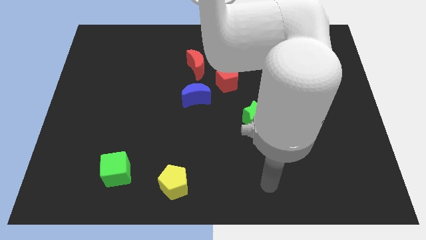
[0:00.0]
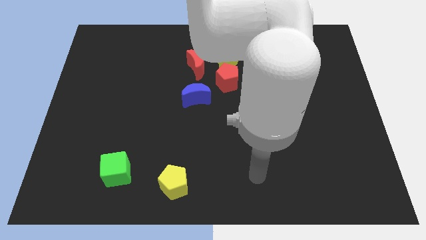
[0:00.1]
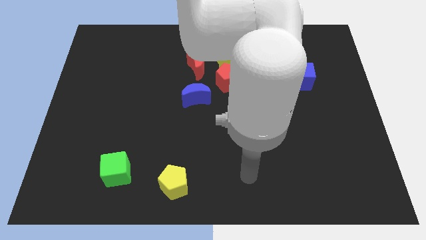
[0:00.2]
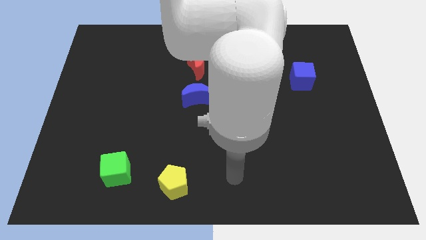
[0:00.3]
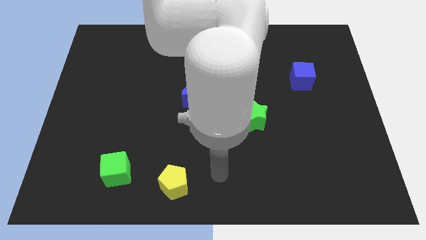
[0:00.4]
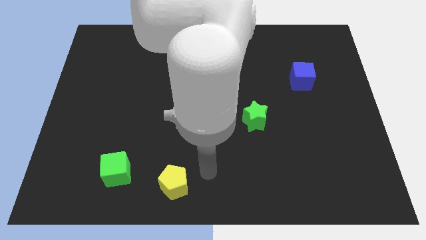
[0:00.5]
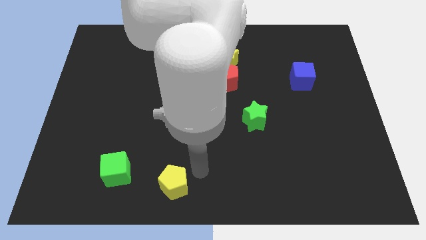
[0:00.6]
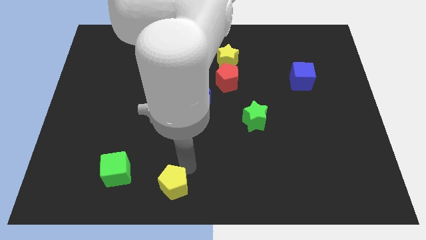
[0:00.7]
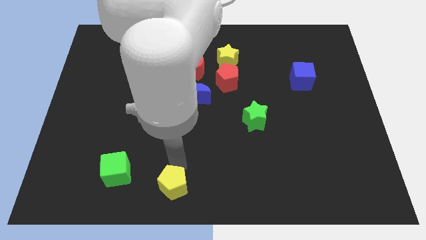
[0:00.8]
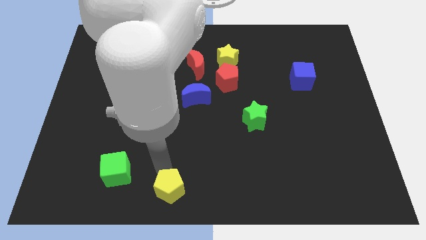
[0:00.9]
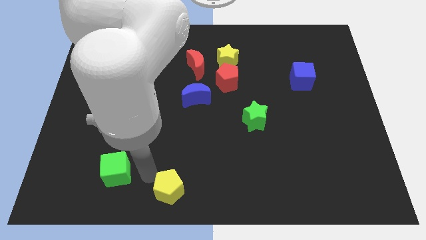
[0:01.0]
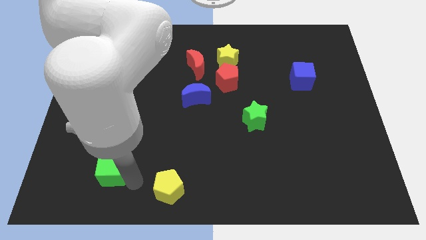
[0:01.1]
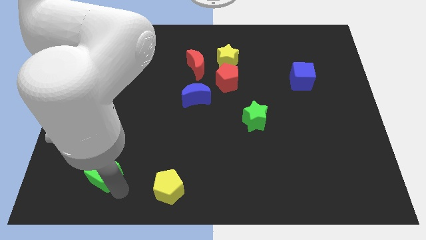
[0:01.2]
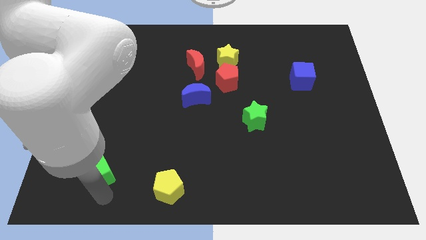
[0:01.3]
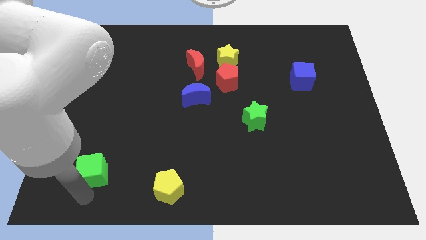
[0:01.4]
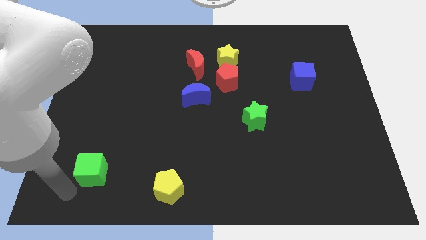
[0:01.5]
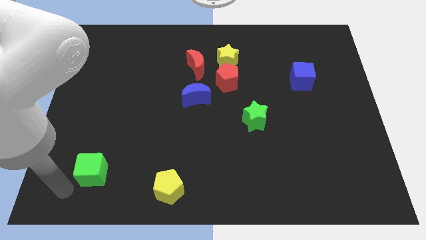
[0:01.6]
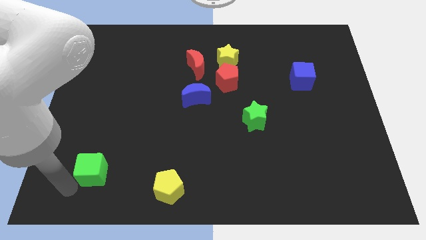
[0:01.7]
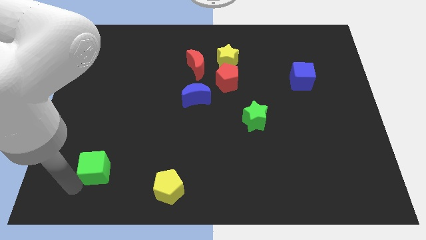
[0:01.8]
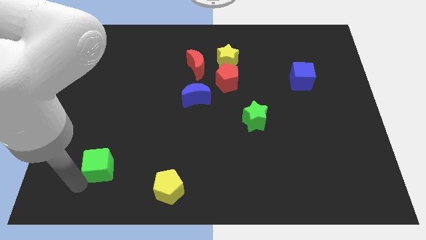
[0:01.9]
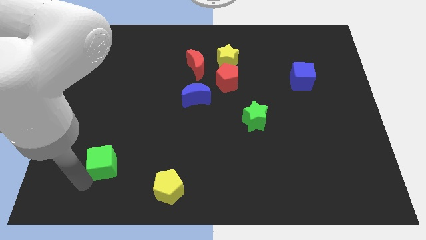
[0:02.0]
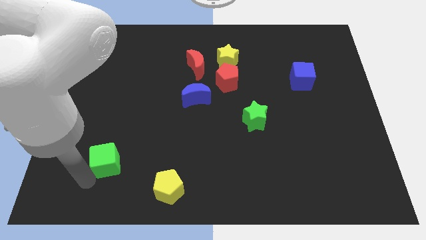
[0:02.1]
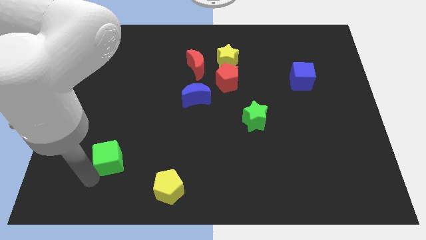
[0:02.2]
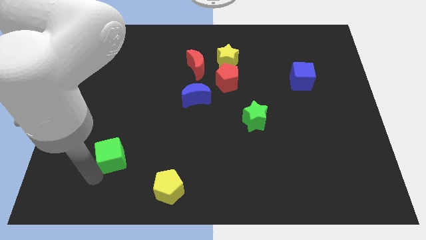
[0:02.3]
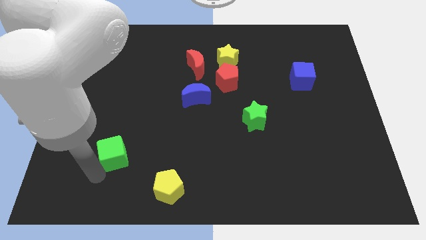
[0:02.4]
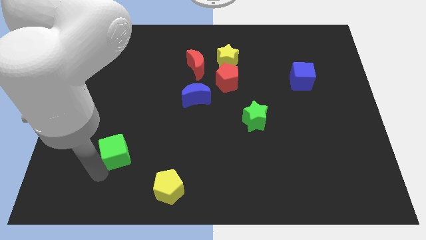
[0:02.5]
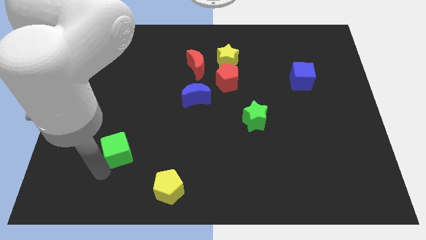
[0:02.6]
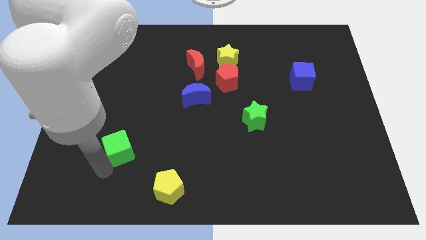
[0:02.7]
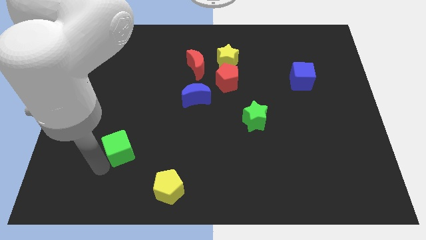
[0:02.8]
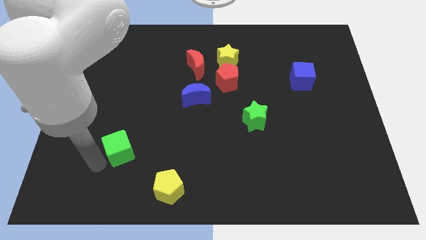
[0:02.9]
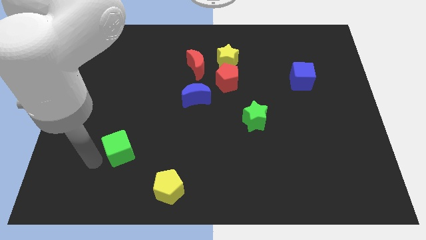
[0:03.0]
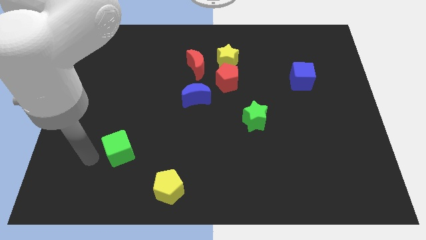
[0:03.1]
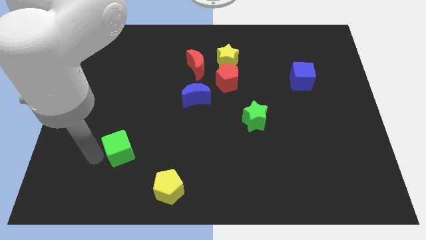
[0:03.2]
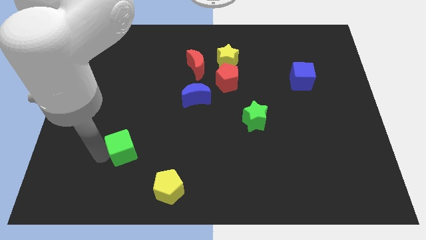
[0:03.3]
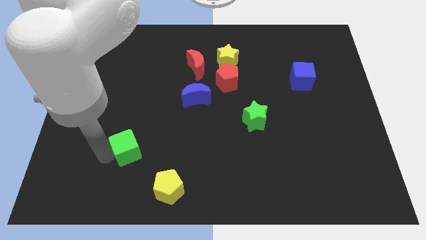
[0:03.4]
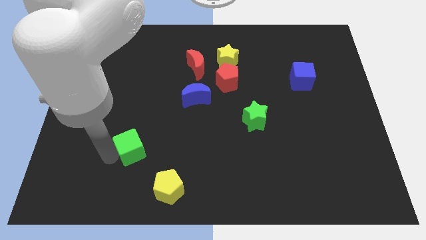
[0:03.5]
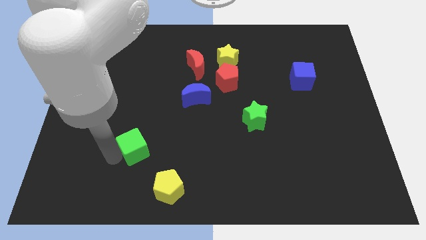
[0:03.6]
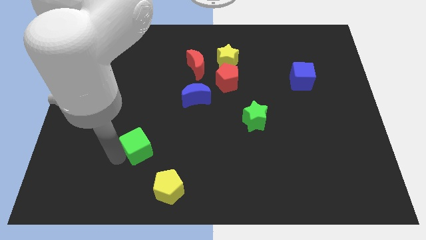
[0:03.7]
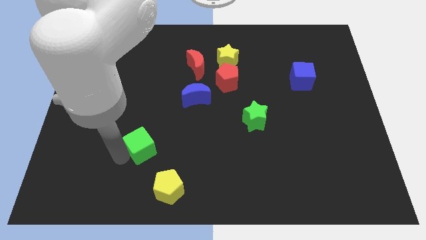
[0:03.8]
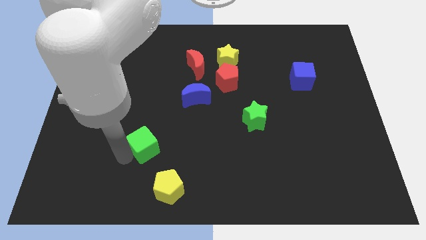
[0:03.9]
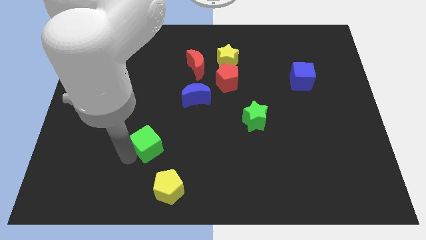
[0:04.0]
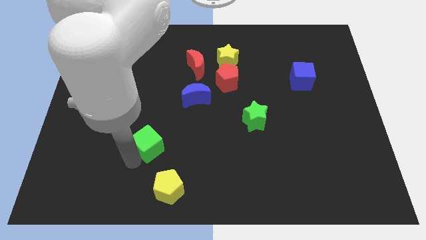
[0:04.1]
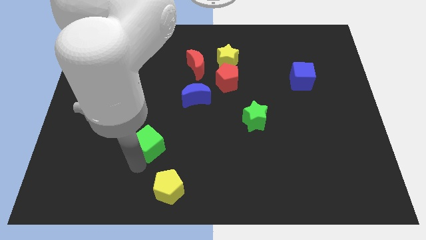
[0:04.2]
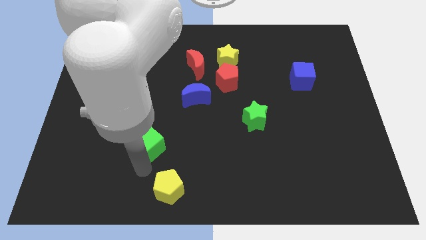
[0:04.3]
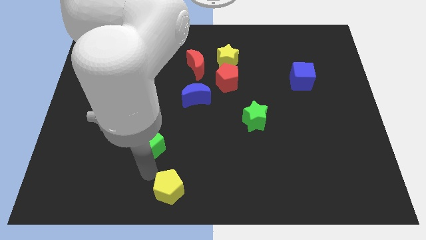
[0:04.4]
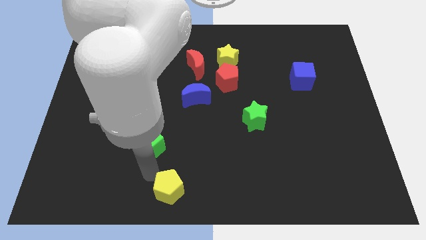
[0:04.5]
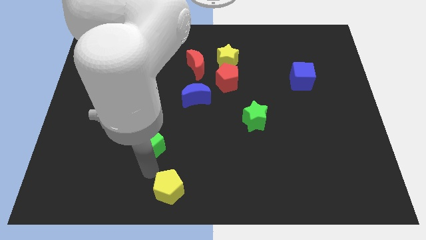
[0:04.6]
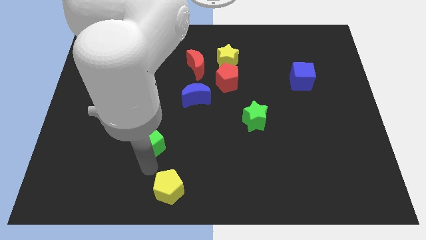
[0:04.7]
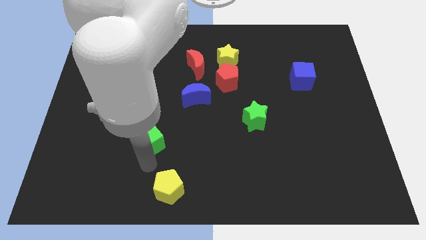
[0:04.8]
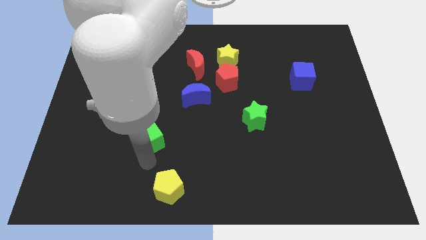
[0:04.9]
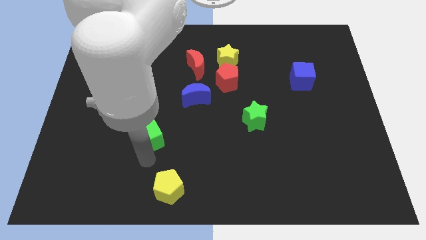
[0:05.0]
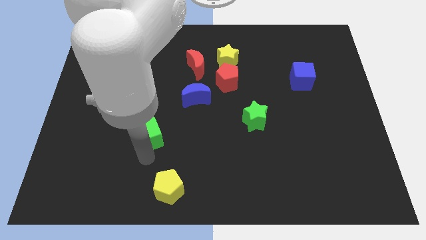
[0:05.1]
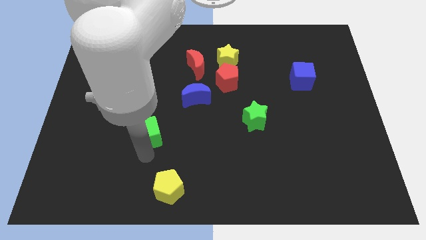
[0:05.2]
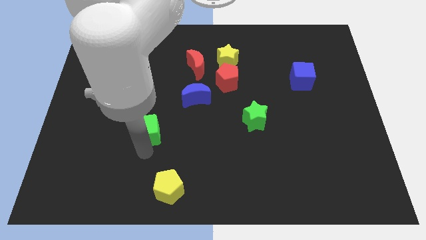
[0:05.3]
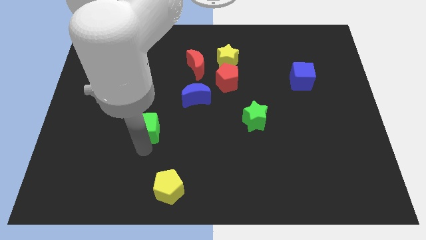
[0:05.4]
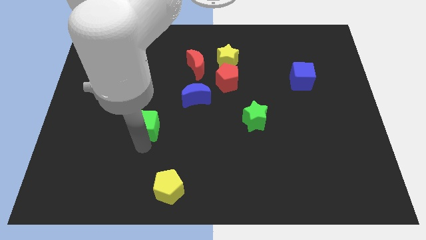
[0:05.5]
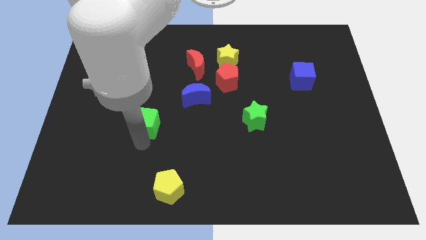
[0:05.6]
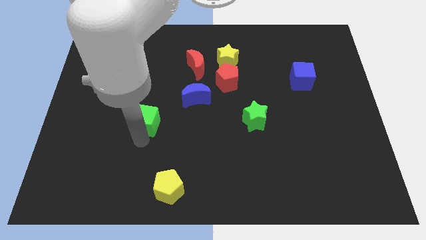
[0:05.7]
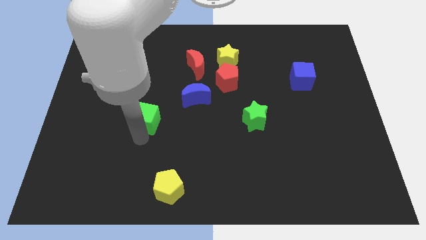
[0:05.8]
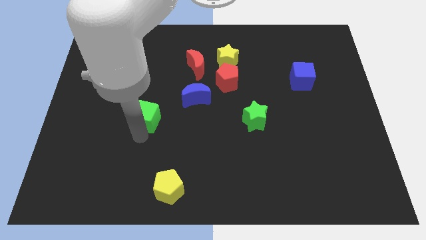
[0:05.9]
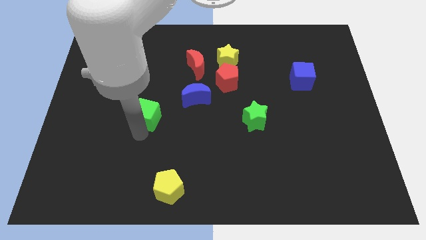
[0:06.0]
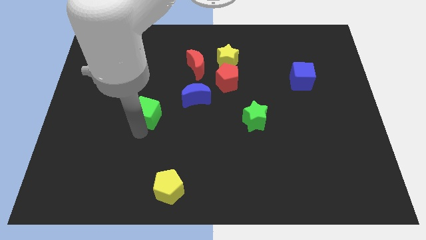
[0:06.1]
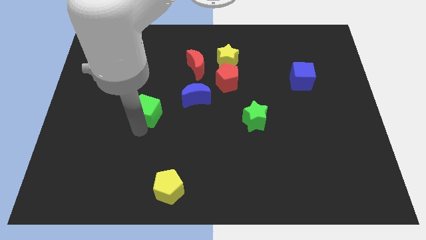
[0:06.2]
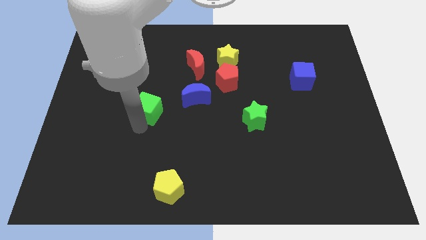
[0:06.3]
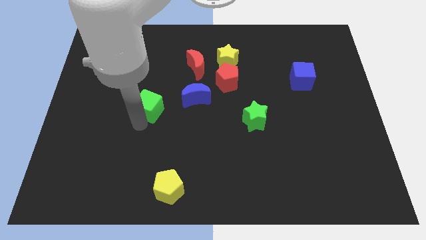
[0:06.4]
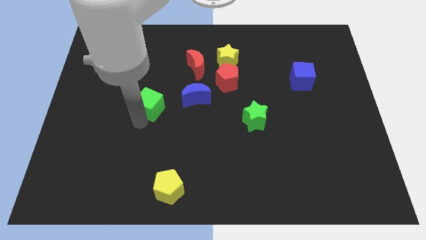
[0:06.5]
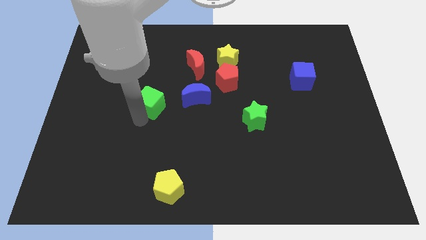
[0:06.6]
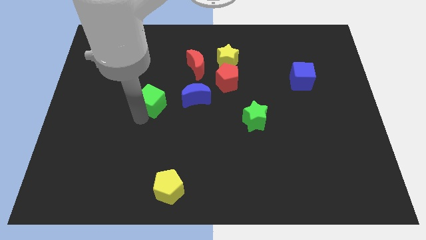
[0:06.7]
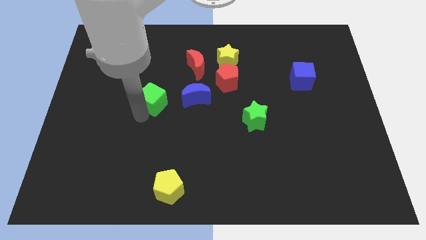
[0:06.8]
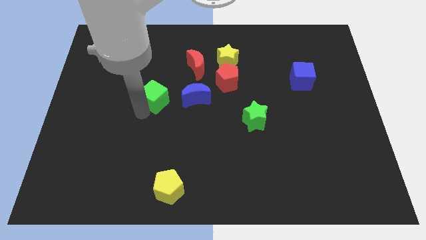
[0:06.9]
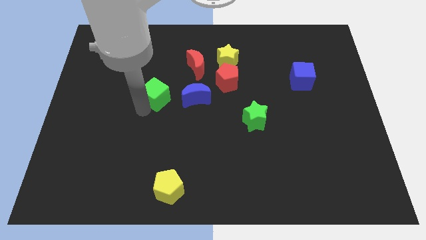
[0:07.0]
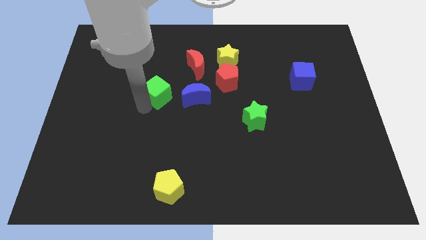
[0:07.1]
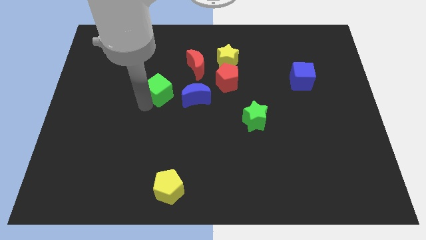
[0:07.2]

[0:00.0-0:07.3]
put the green cube diagonally down and to the left of the red moon
